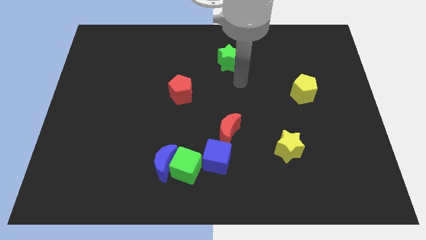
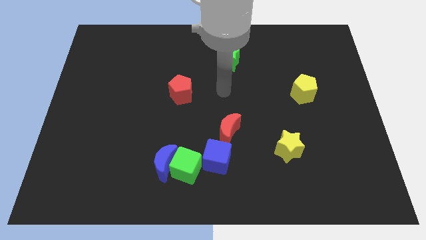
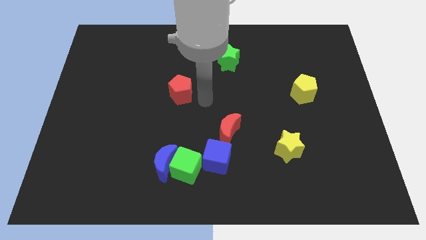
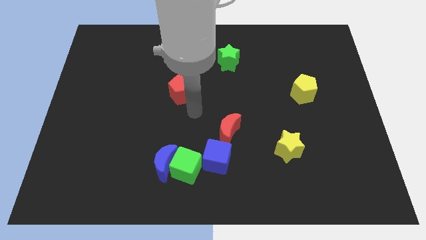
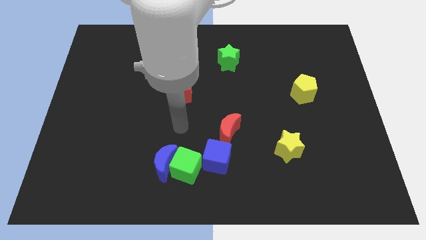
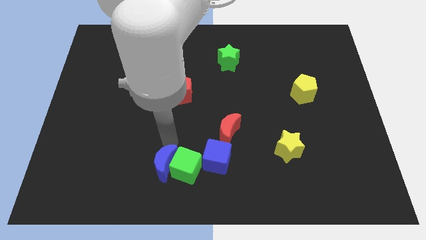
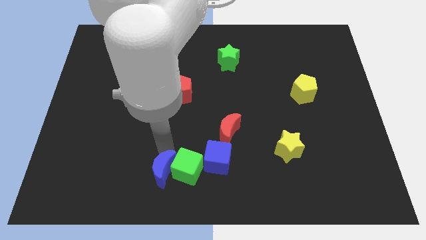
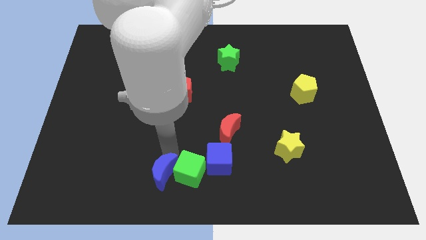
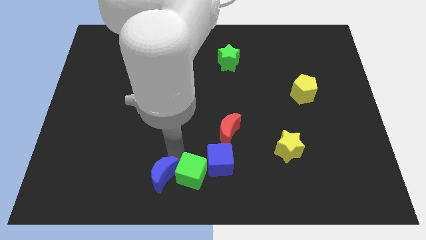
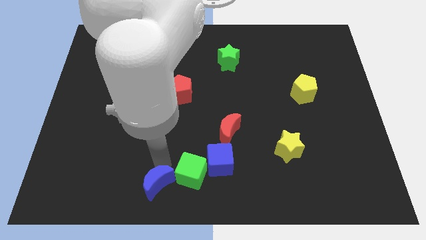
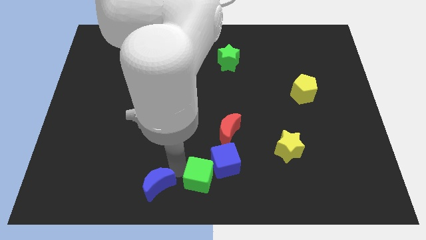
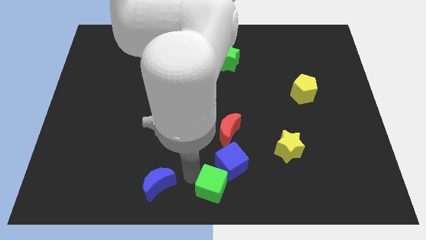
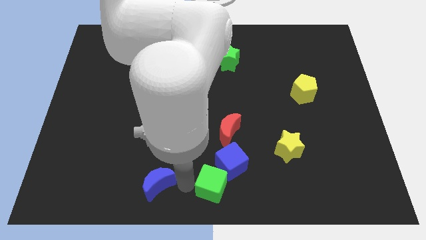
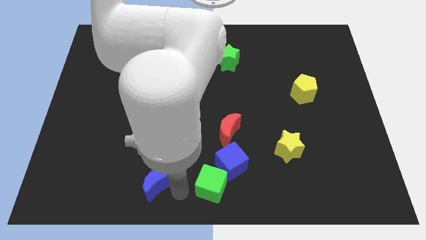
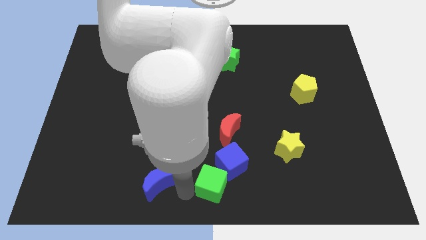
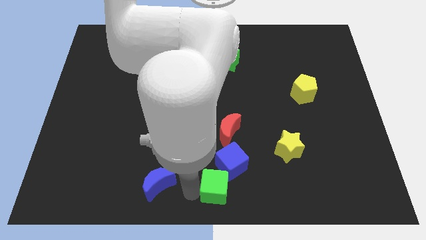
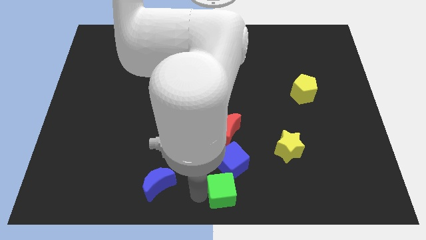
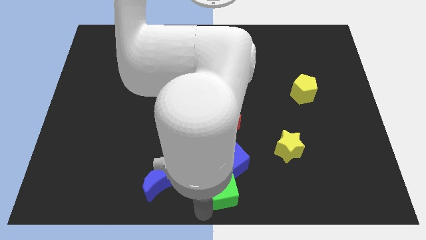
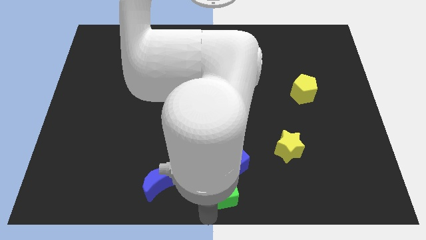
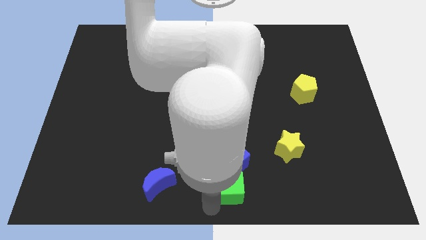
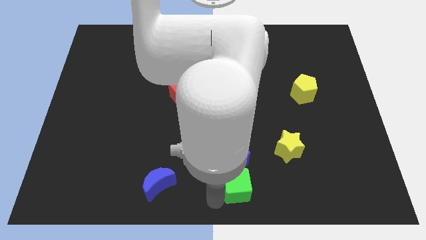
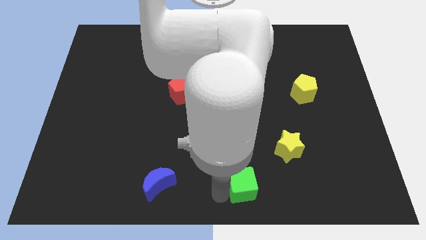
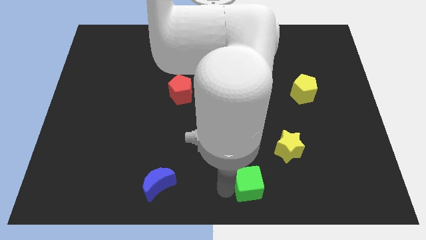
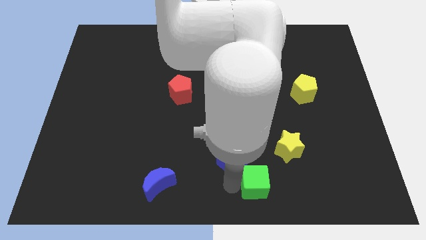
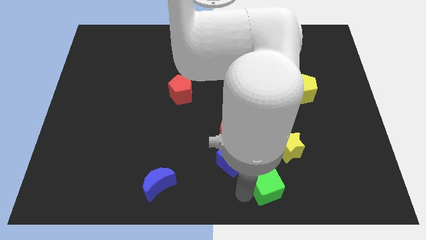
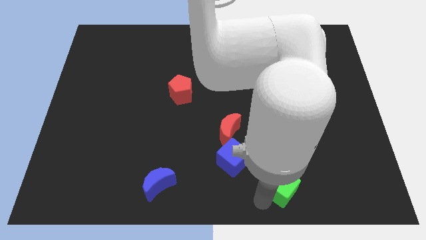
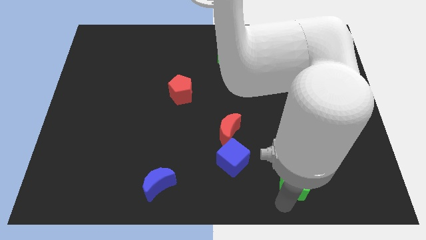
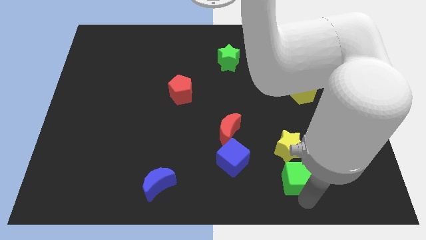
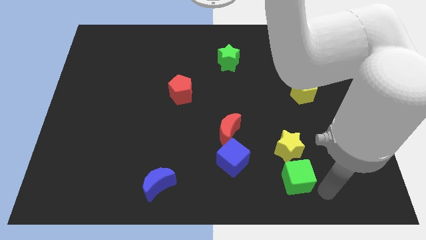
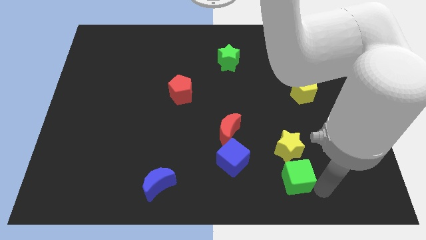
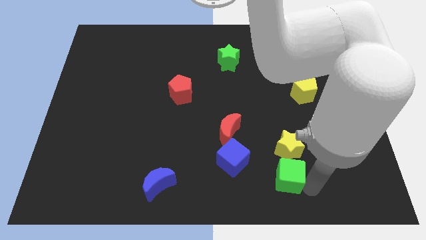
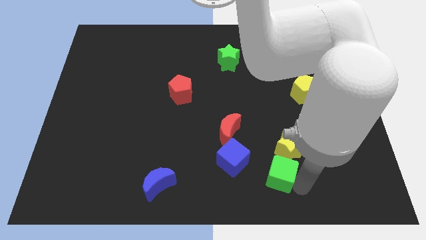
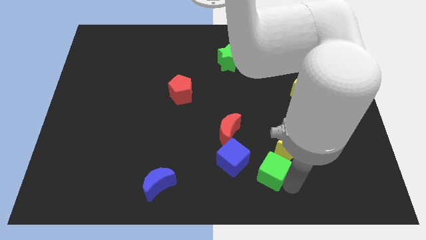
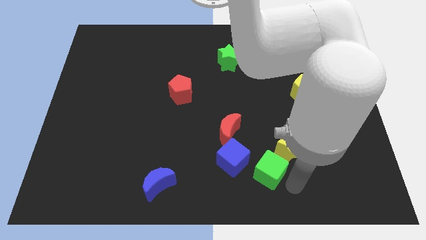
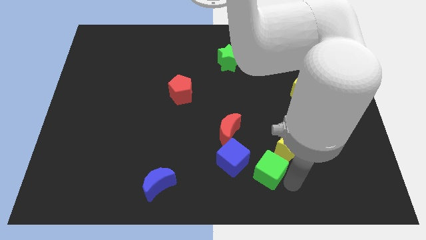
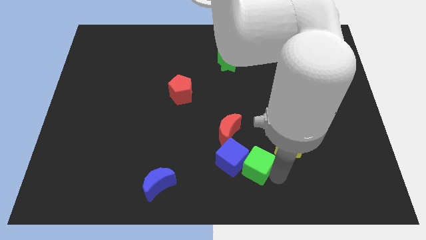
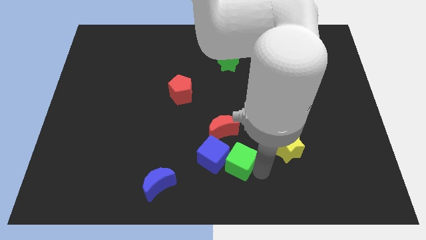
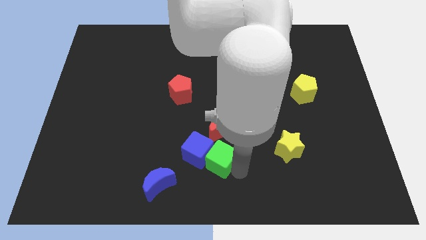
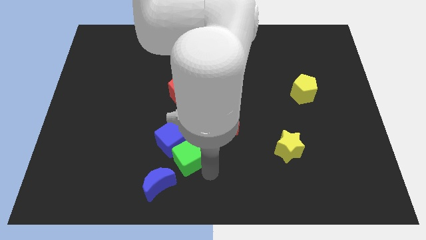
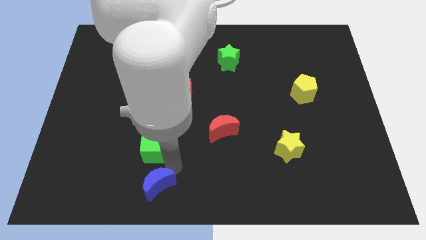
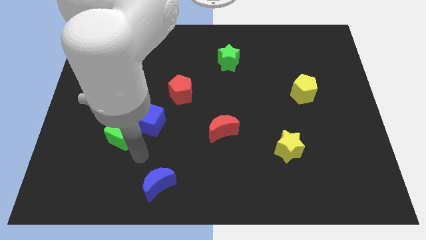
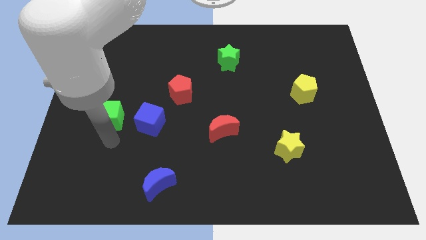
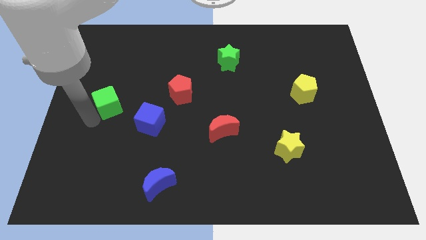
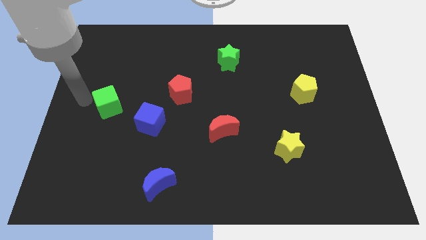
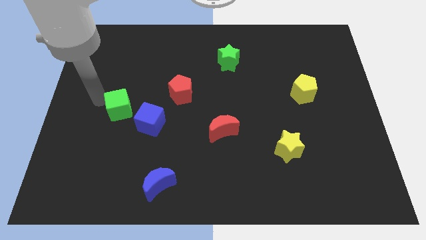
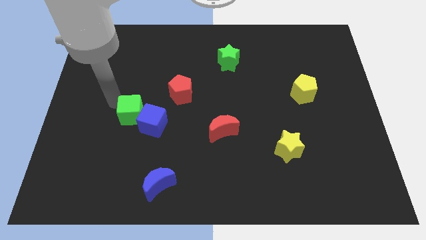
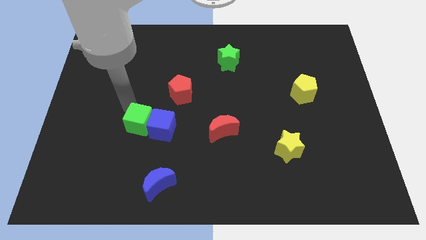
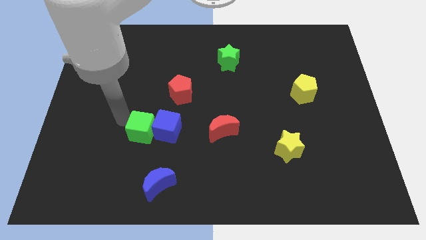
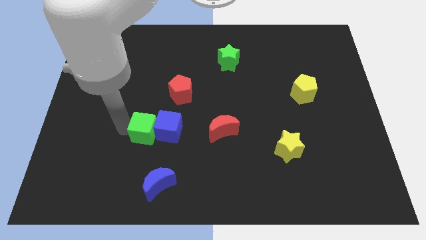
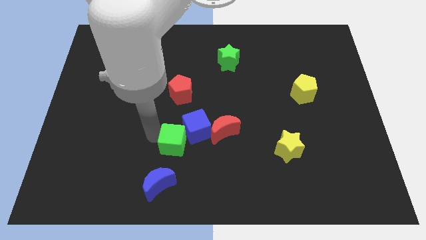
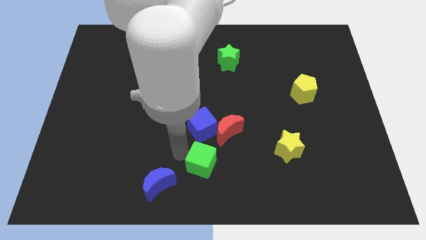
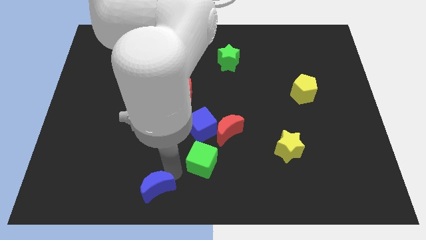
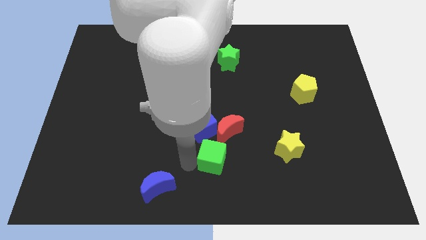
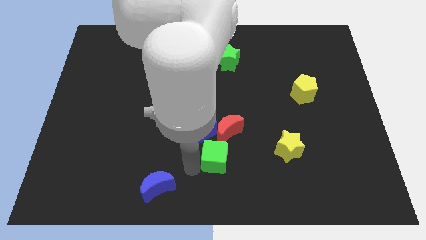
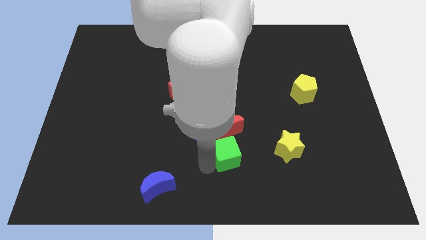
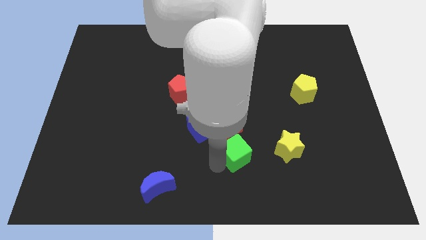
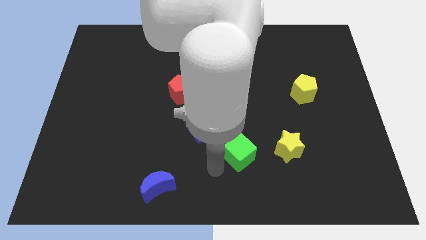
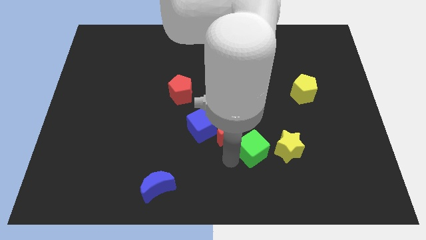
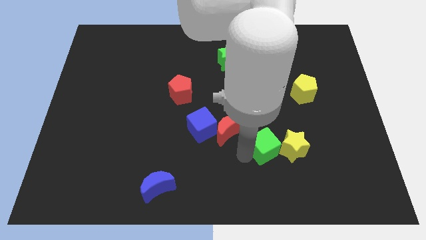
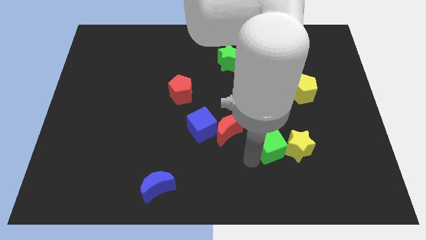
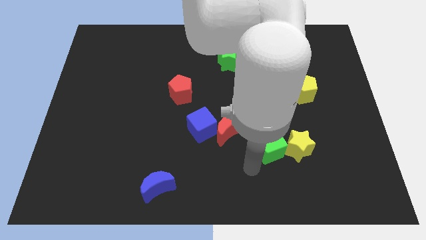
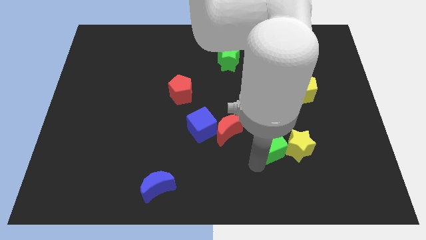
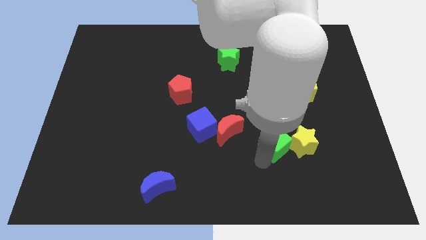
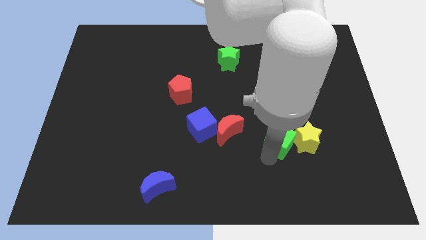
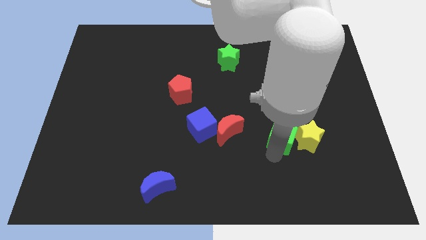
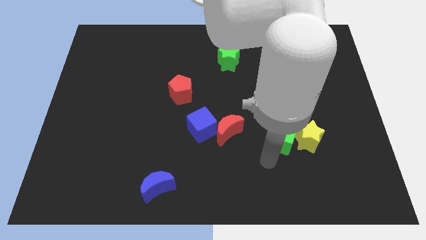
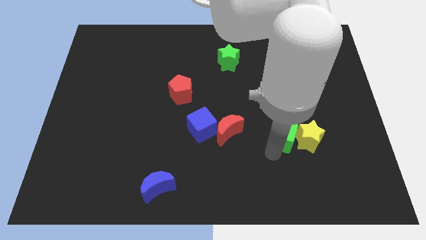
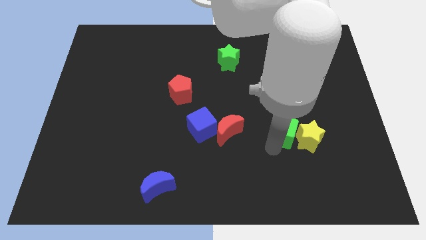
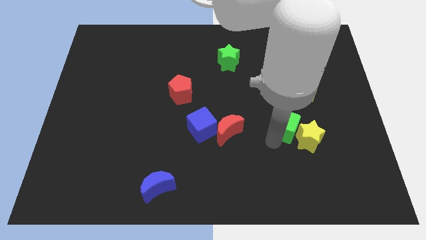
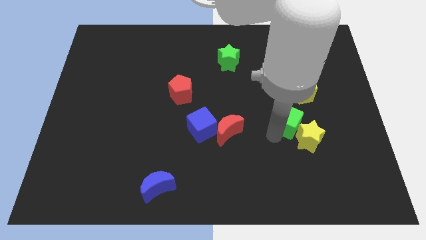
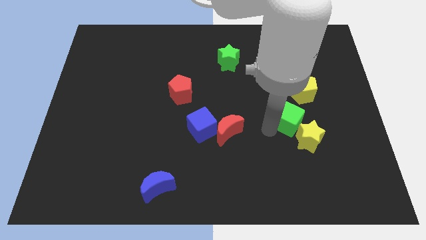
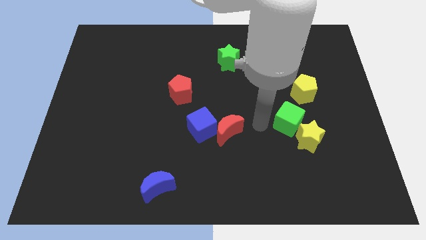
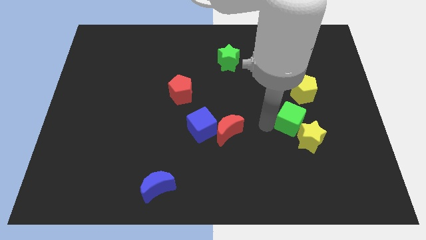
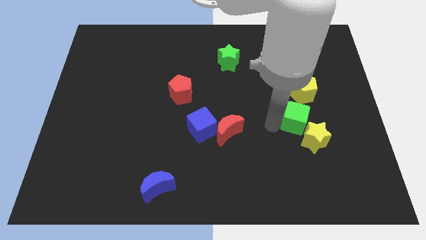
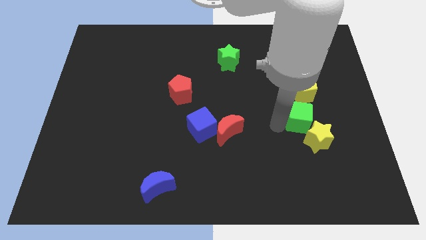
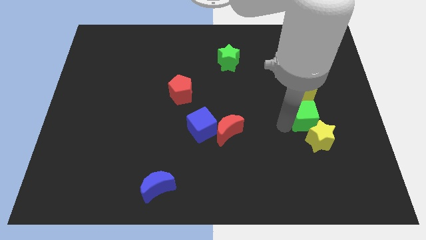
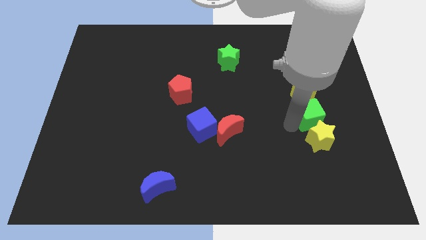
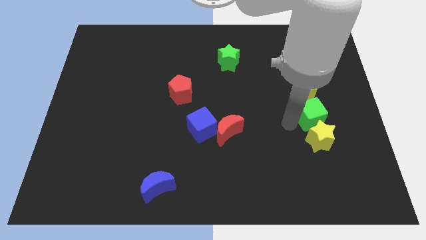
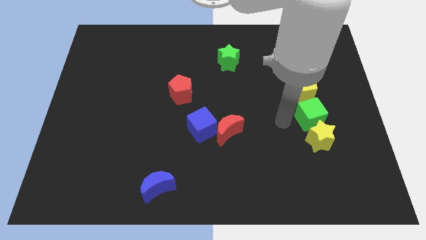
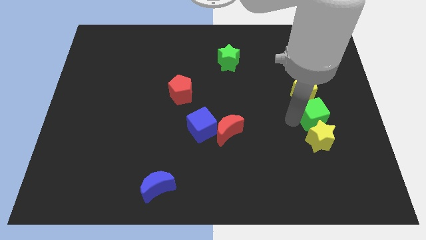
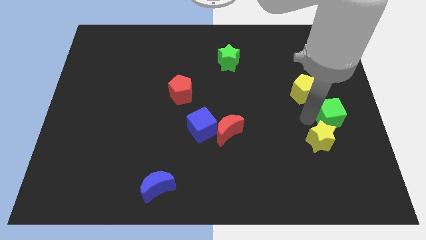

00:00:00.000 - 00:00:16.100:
push the green cube to the right side of the board
